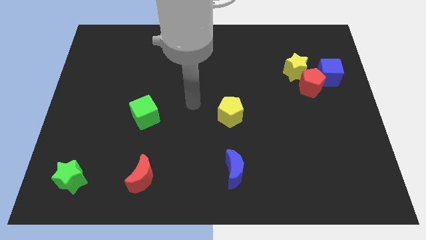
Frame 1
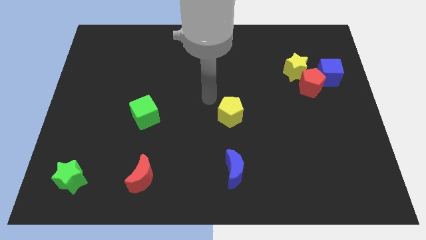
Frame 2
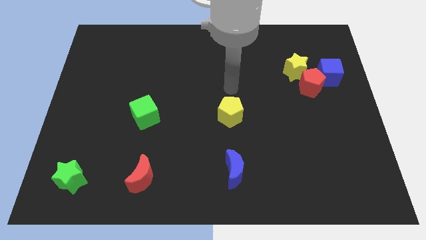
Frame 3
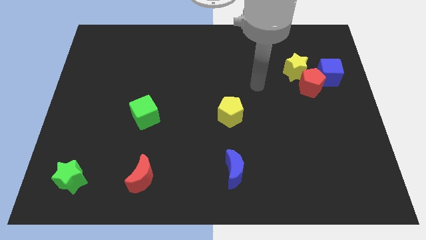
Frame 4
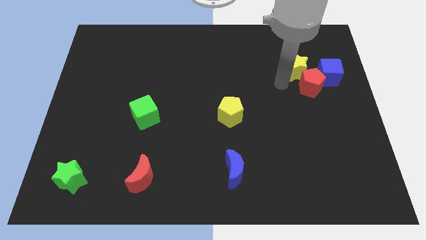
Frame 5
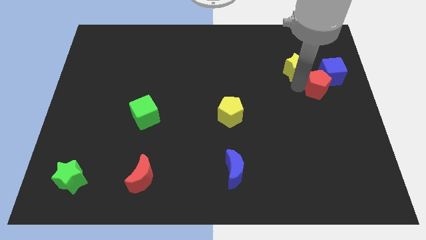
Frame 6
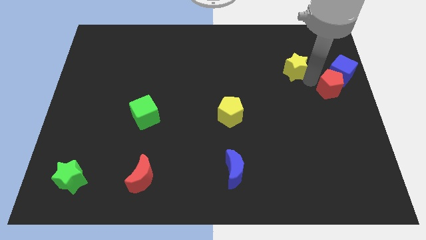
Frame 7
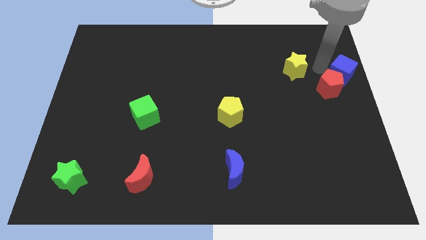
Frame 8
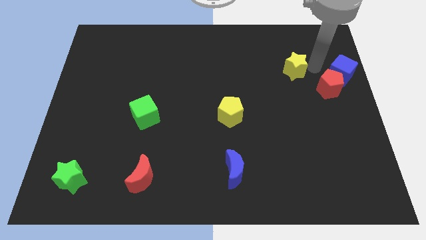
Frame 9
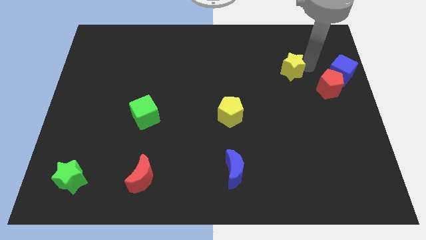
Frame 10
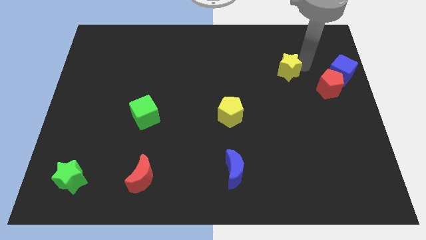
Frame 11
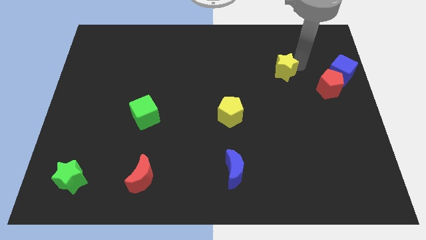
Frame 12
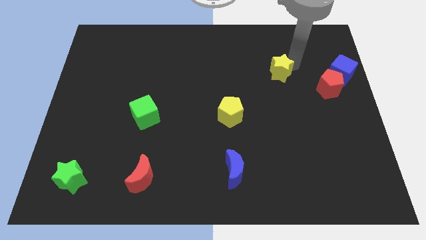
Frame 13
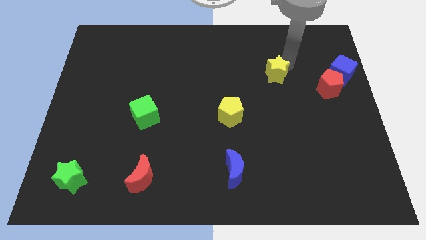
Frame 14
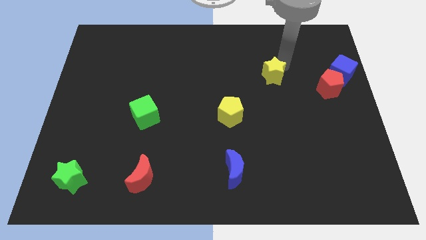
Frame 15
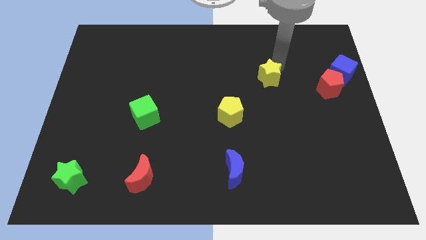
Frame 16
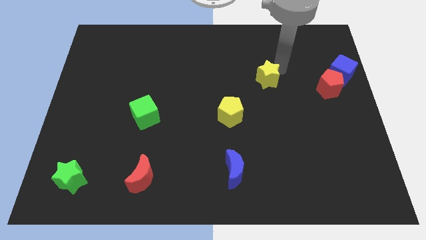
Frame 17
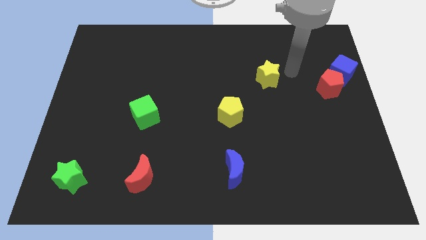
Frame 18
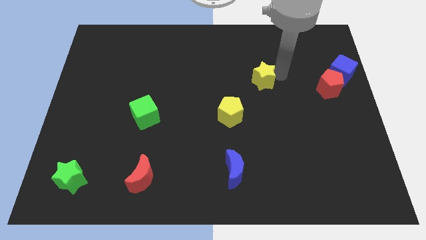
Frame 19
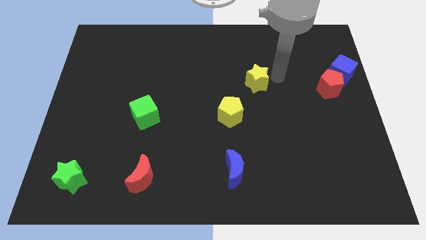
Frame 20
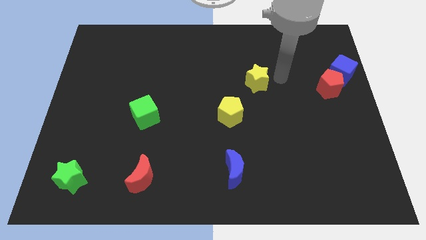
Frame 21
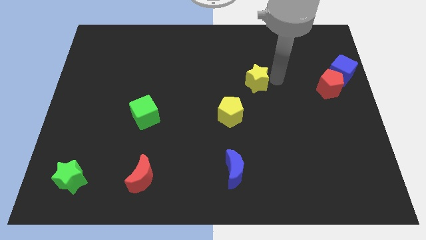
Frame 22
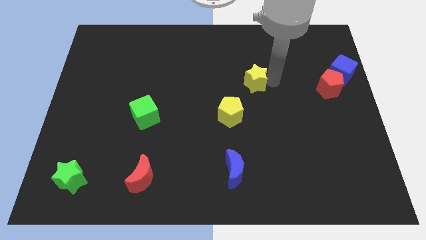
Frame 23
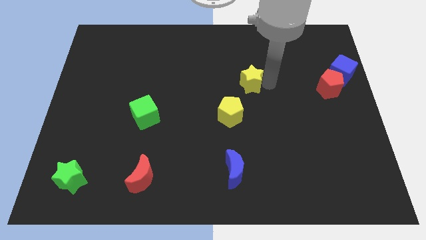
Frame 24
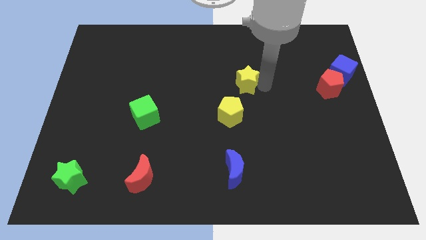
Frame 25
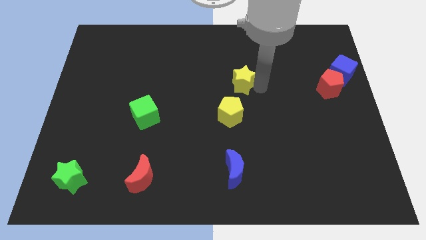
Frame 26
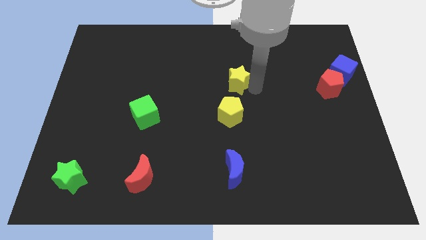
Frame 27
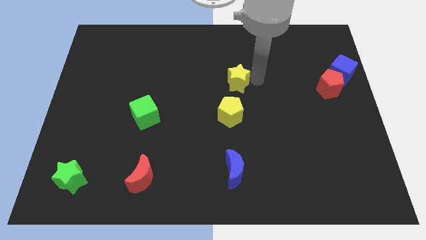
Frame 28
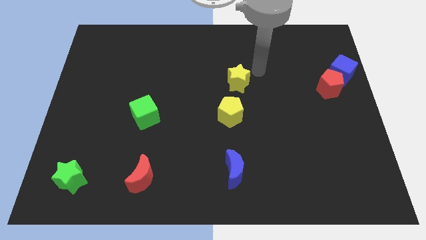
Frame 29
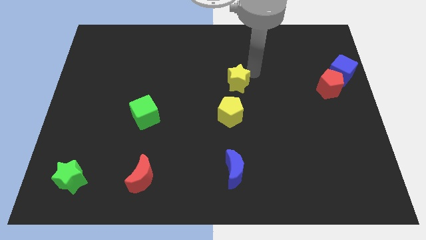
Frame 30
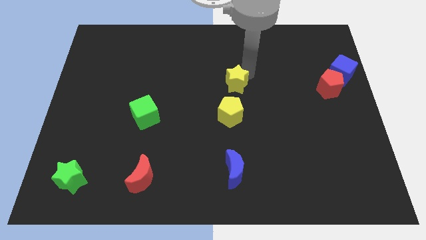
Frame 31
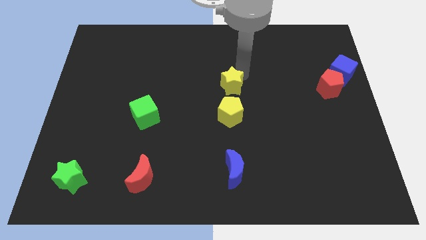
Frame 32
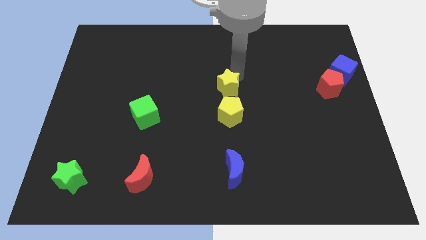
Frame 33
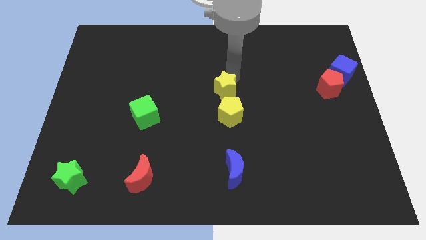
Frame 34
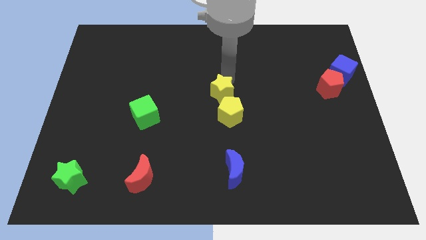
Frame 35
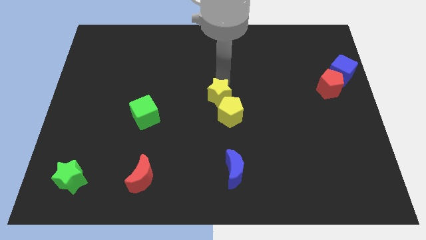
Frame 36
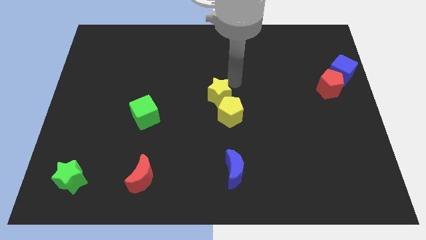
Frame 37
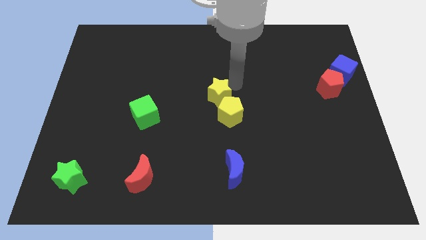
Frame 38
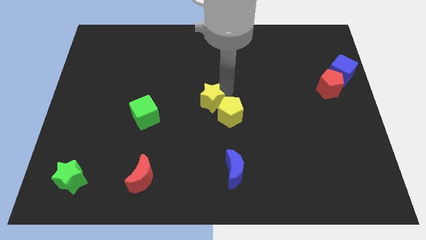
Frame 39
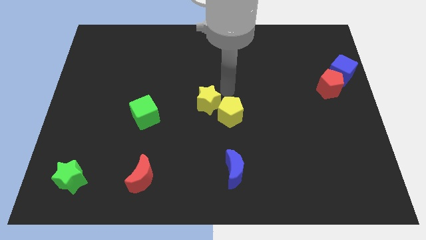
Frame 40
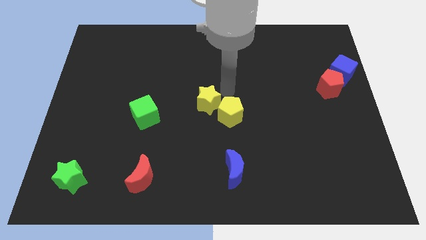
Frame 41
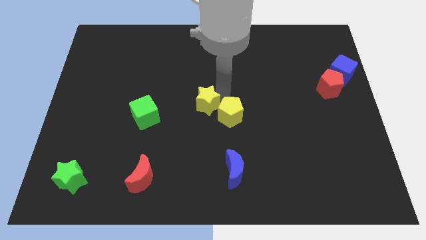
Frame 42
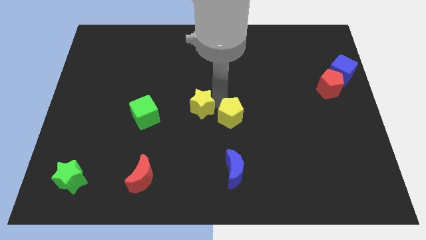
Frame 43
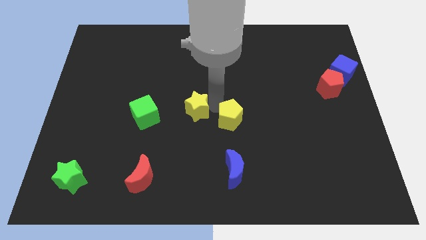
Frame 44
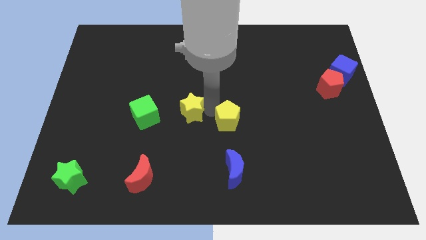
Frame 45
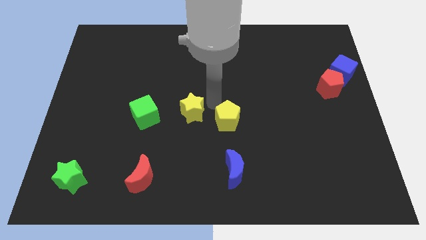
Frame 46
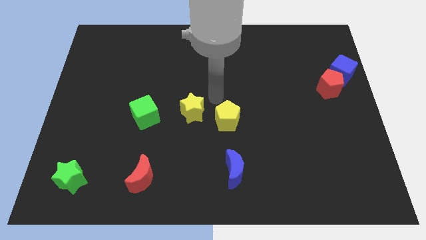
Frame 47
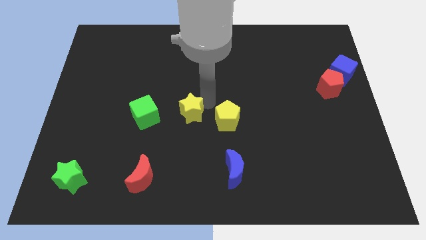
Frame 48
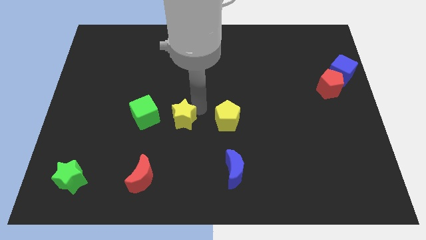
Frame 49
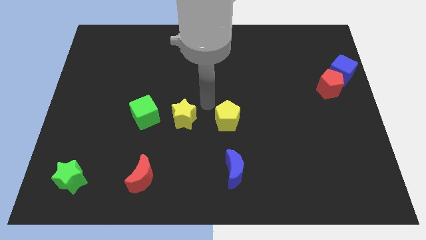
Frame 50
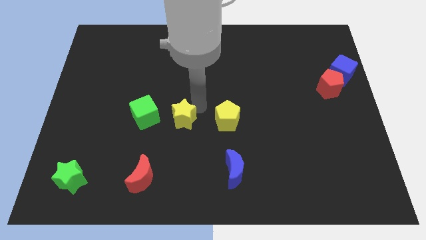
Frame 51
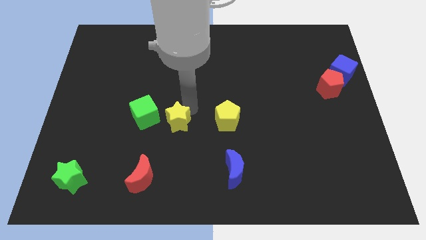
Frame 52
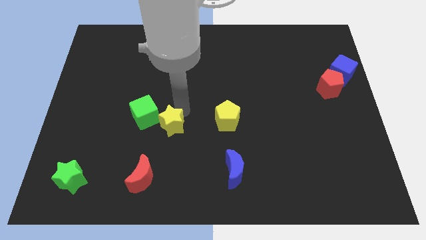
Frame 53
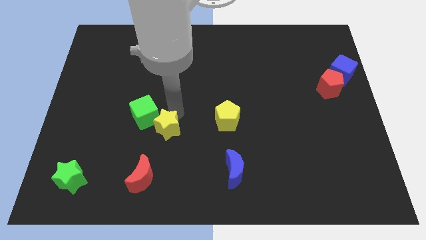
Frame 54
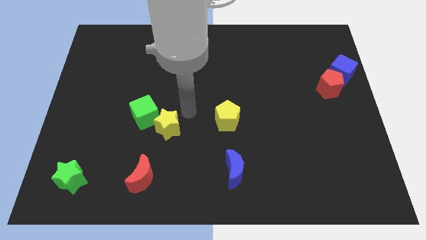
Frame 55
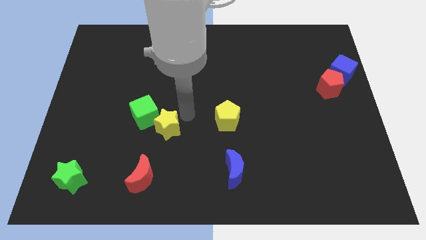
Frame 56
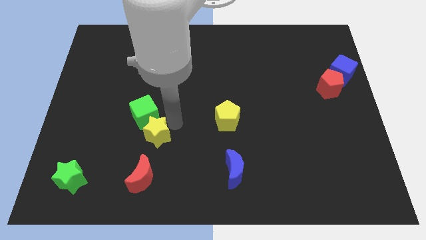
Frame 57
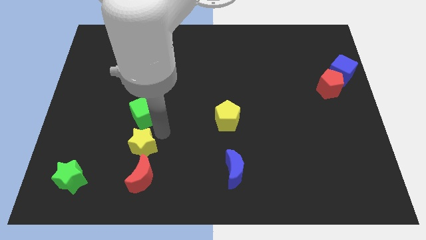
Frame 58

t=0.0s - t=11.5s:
put the yellow star to the top left side of the red moon
